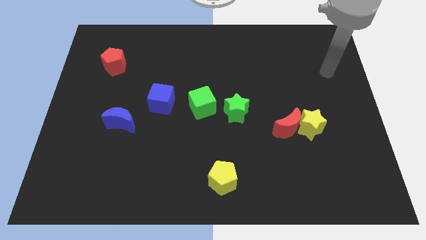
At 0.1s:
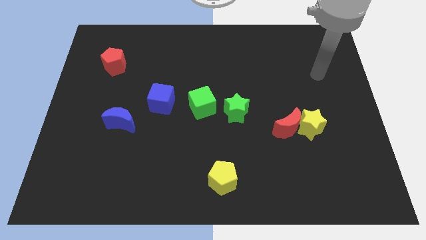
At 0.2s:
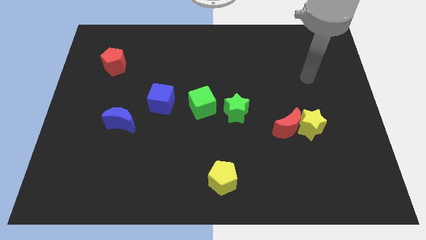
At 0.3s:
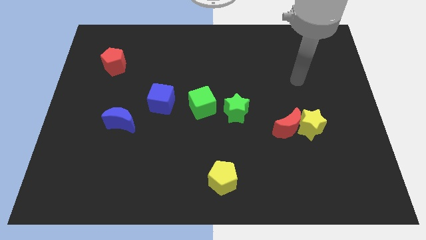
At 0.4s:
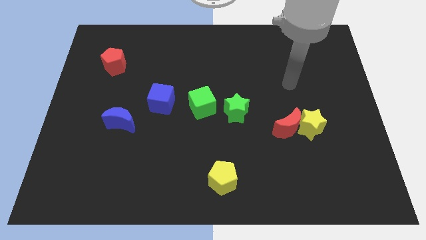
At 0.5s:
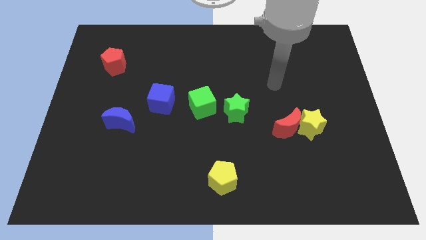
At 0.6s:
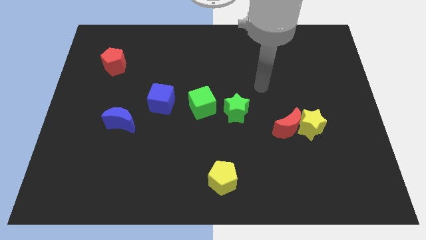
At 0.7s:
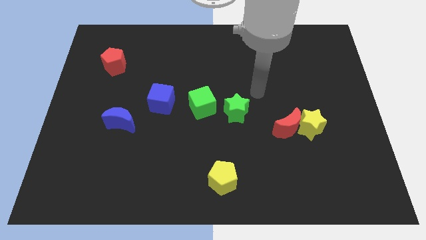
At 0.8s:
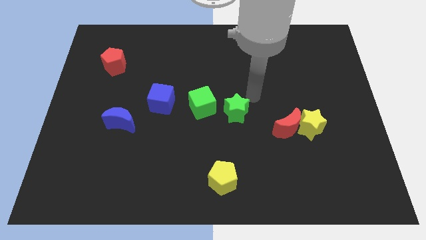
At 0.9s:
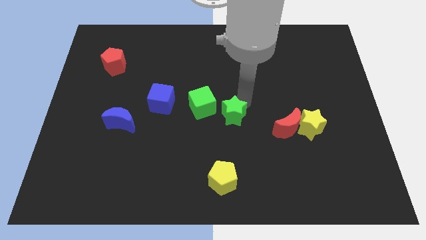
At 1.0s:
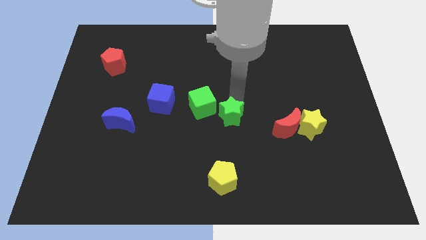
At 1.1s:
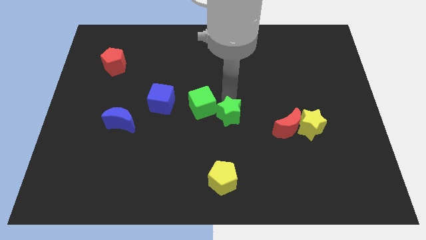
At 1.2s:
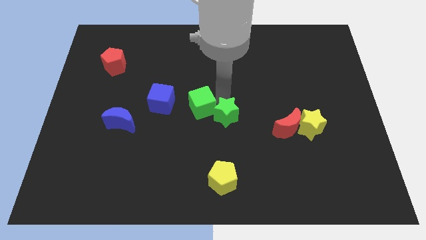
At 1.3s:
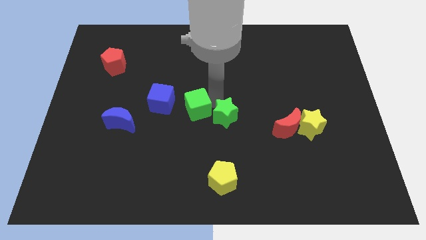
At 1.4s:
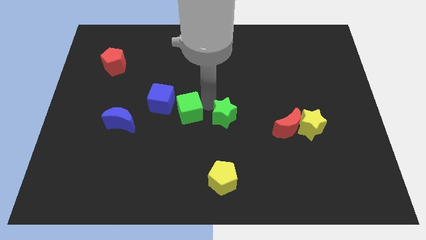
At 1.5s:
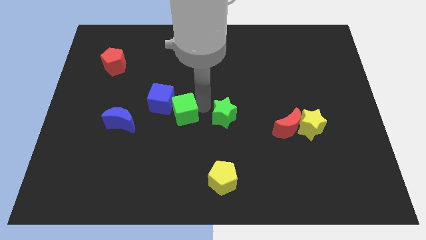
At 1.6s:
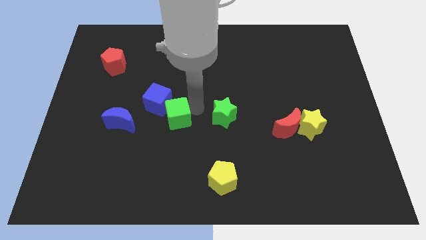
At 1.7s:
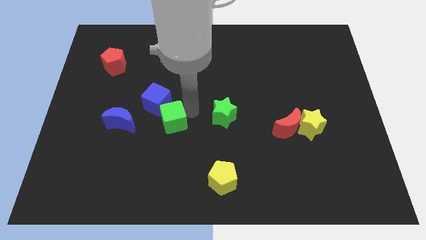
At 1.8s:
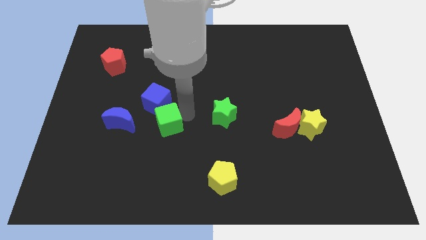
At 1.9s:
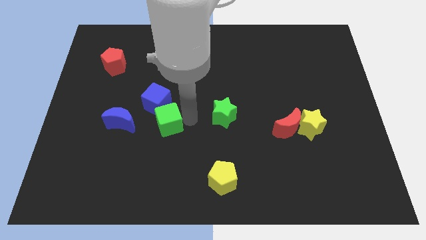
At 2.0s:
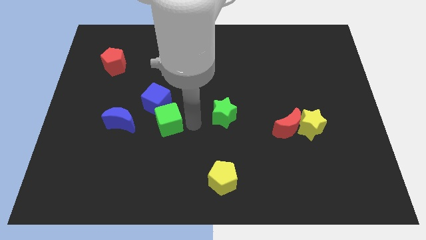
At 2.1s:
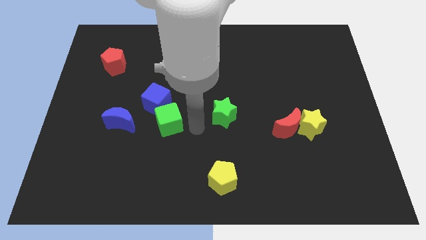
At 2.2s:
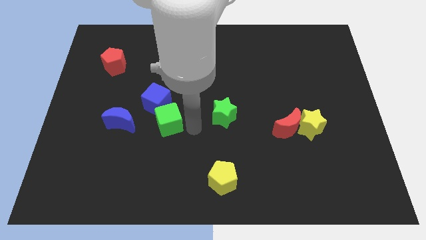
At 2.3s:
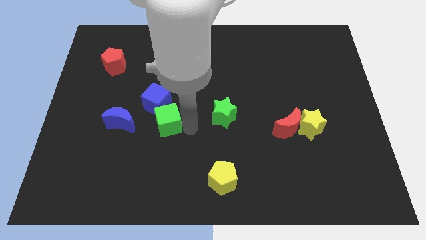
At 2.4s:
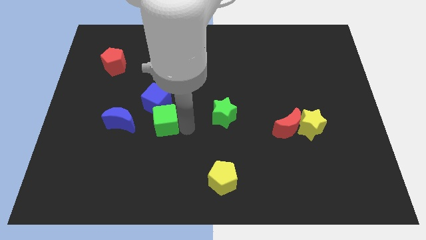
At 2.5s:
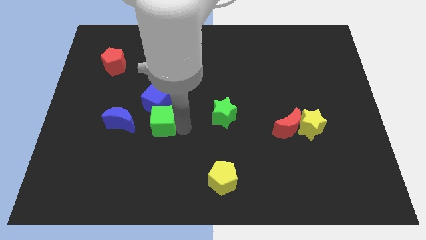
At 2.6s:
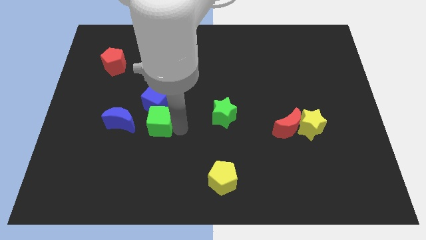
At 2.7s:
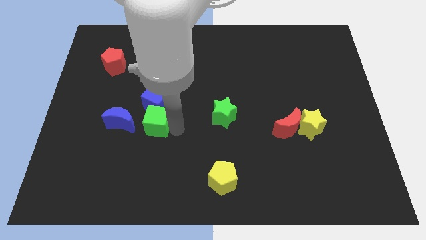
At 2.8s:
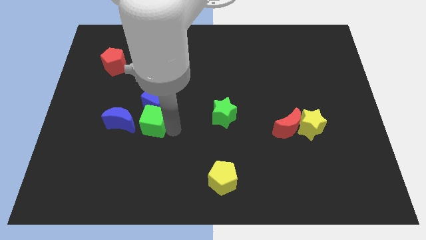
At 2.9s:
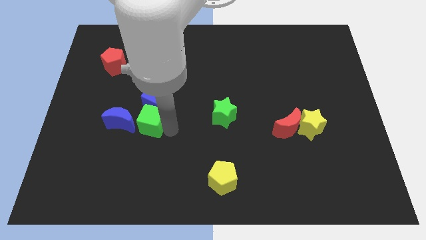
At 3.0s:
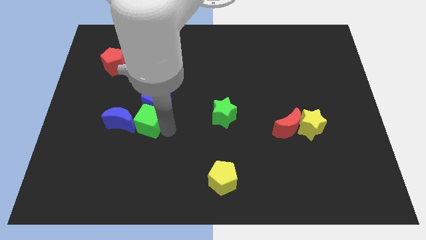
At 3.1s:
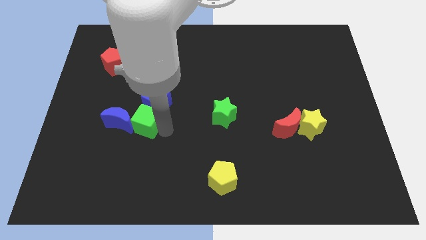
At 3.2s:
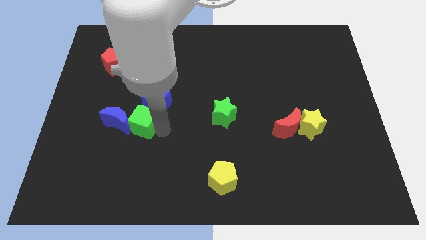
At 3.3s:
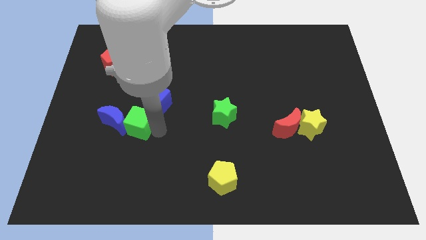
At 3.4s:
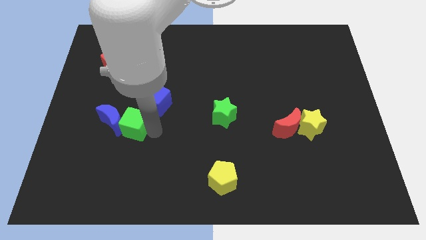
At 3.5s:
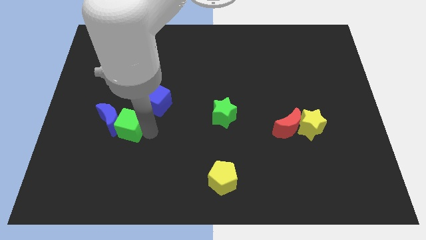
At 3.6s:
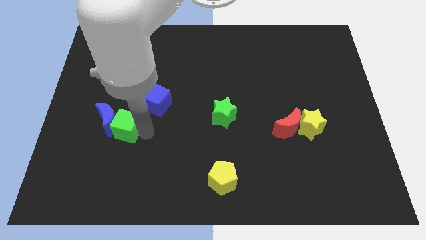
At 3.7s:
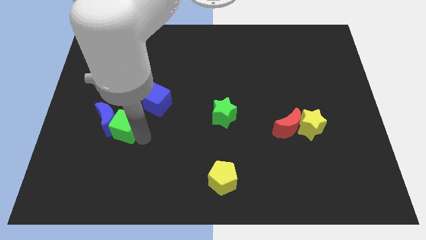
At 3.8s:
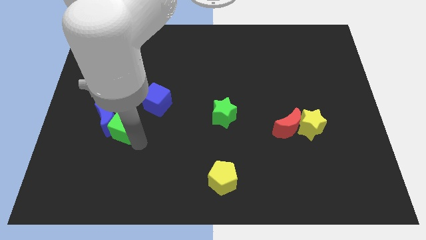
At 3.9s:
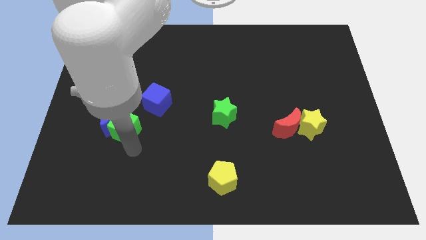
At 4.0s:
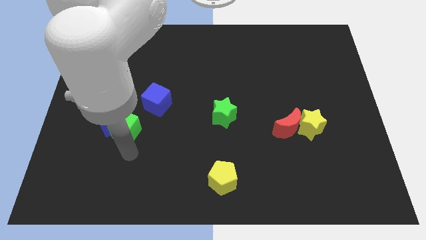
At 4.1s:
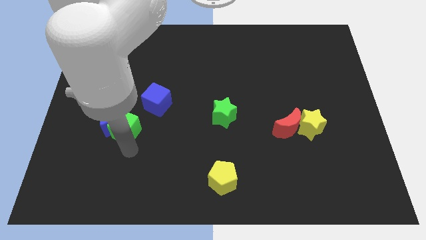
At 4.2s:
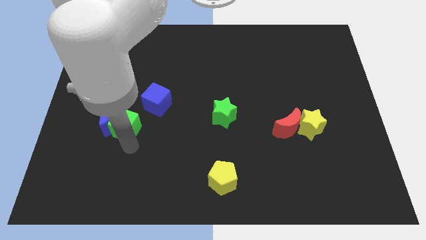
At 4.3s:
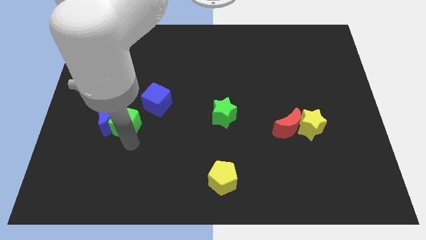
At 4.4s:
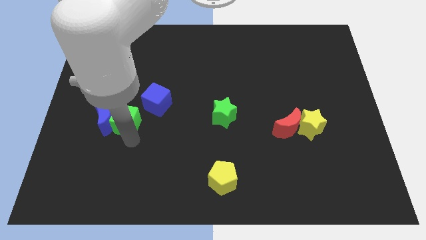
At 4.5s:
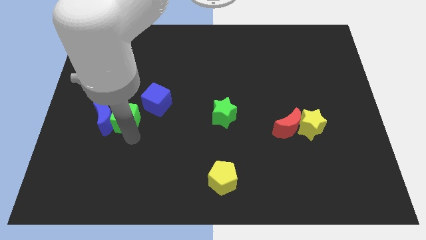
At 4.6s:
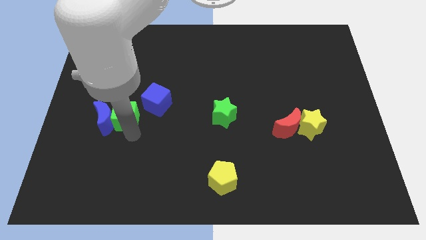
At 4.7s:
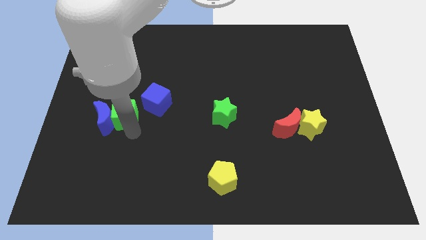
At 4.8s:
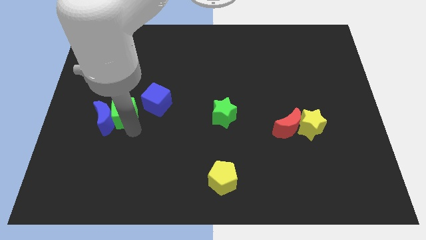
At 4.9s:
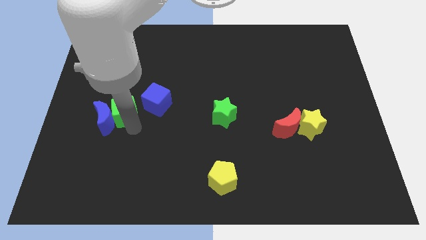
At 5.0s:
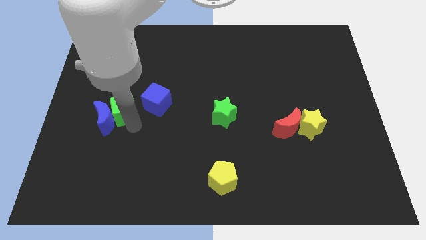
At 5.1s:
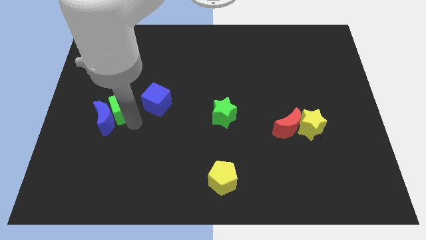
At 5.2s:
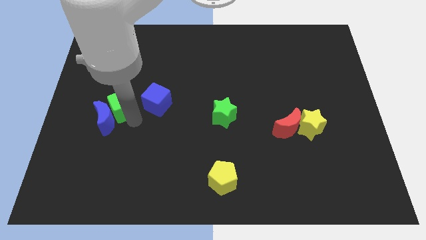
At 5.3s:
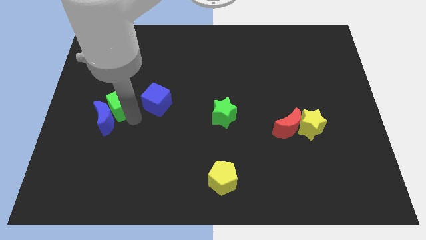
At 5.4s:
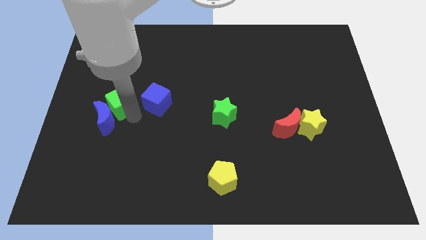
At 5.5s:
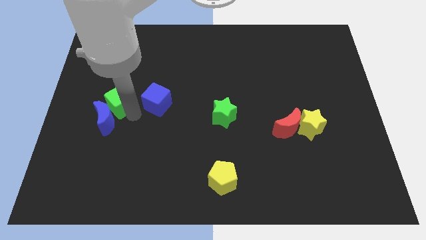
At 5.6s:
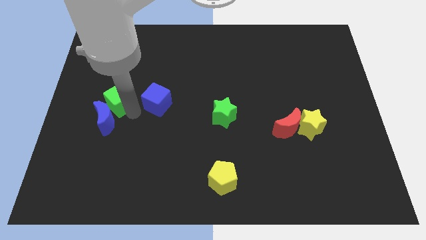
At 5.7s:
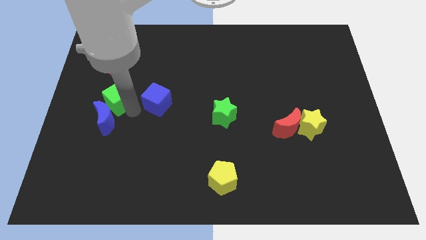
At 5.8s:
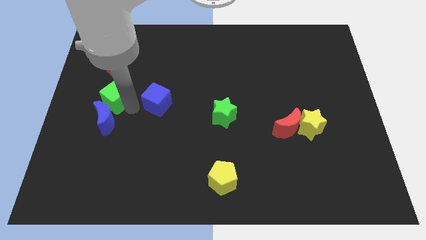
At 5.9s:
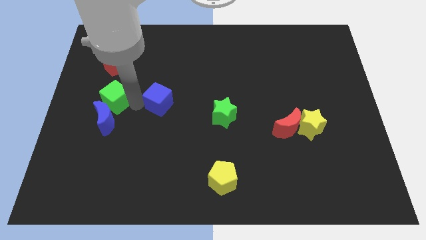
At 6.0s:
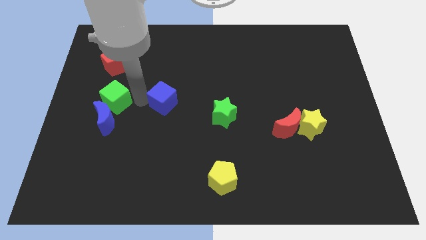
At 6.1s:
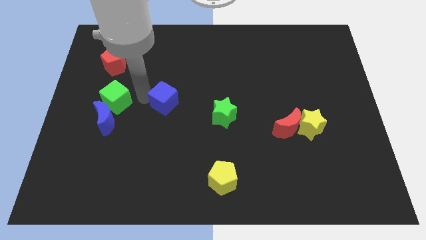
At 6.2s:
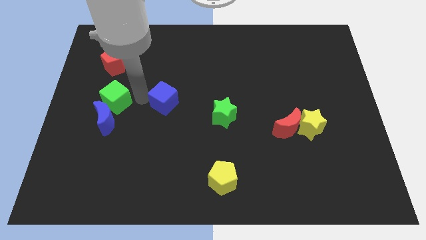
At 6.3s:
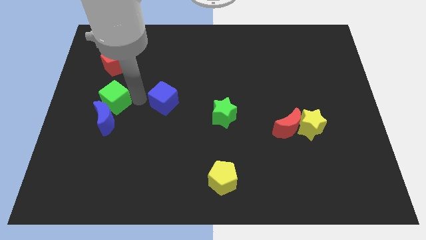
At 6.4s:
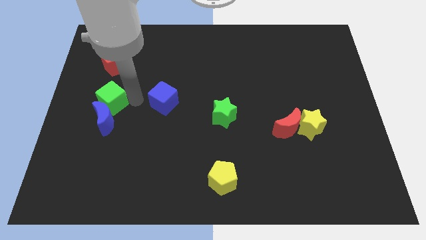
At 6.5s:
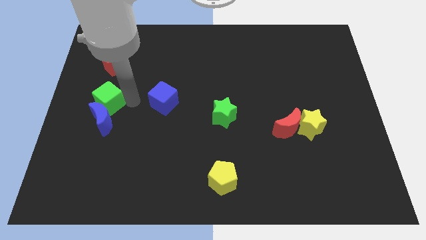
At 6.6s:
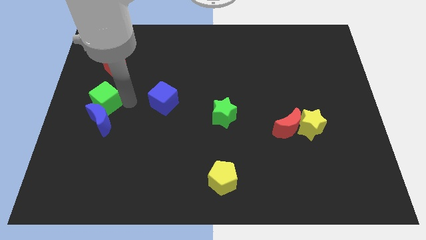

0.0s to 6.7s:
move the green cube to the center left

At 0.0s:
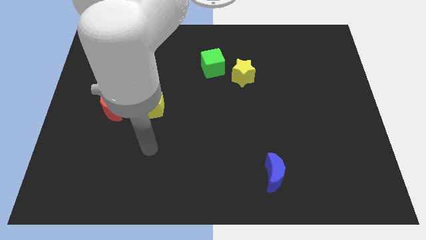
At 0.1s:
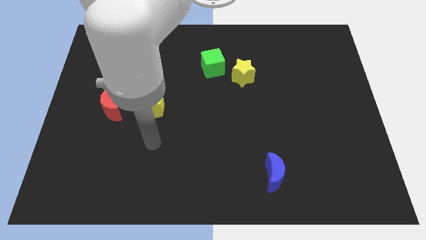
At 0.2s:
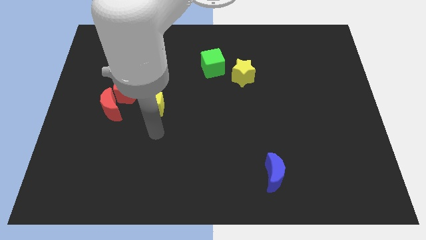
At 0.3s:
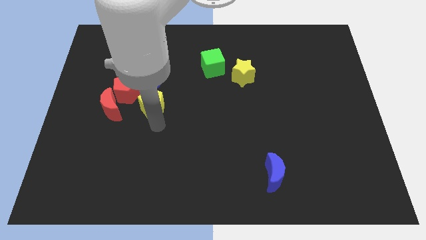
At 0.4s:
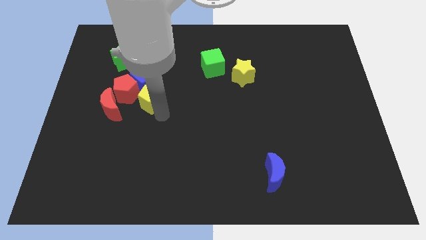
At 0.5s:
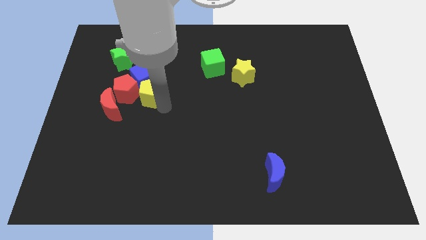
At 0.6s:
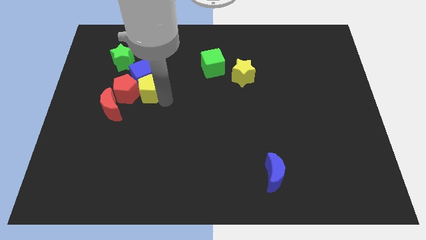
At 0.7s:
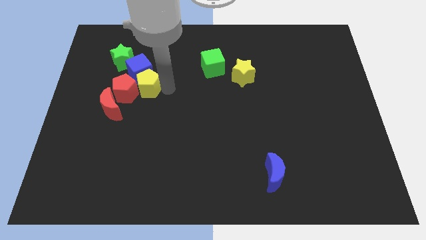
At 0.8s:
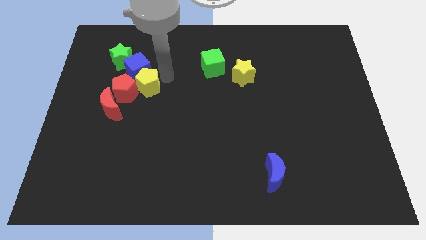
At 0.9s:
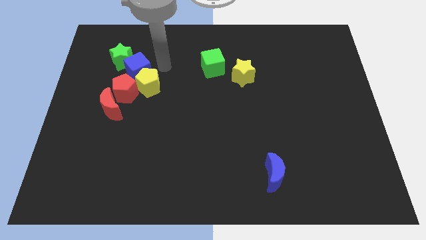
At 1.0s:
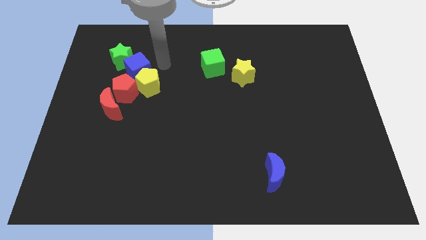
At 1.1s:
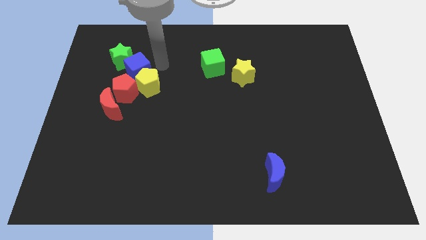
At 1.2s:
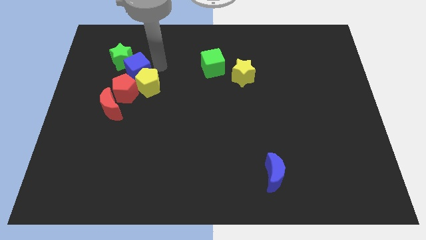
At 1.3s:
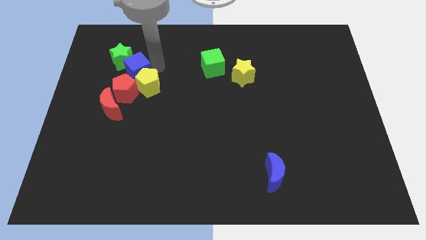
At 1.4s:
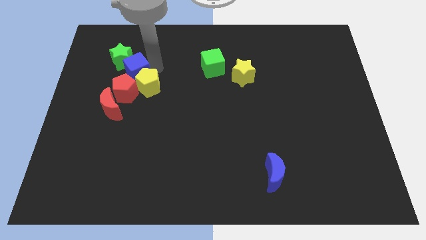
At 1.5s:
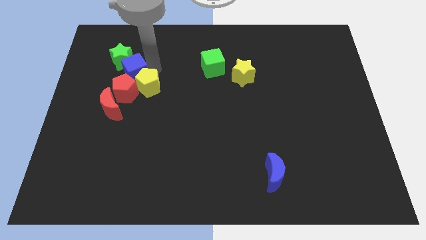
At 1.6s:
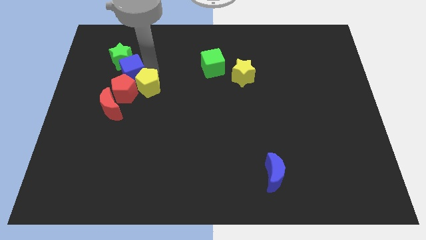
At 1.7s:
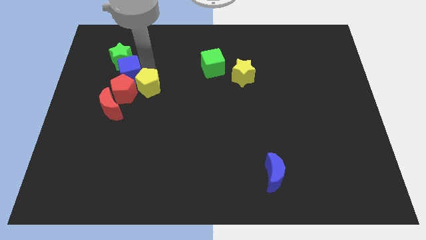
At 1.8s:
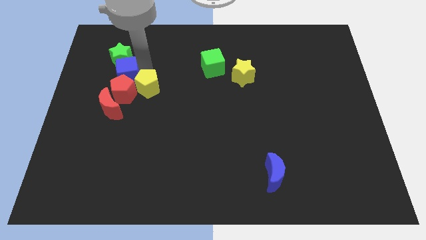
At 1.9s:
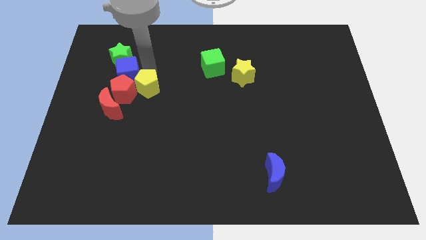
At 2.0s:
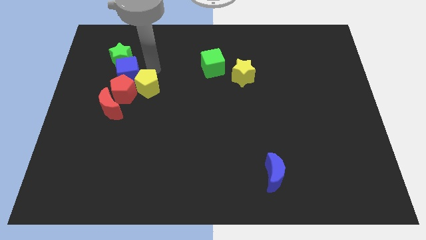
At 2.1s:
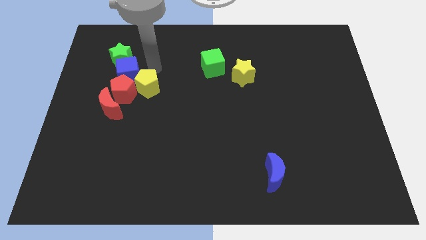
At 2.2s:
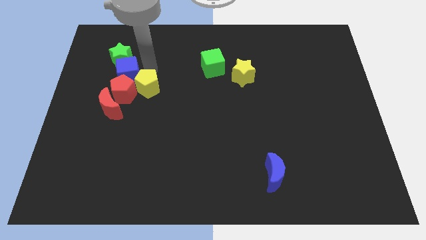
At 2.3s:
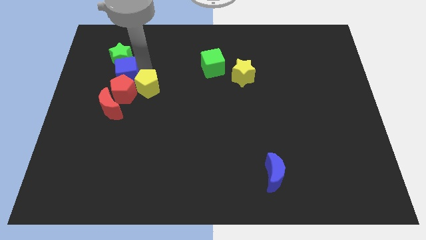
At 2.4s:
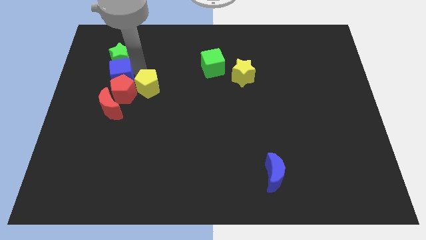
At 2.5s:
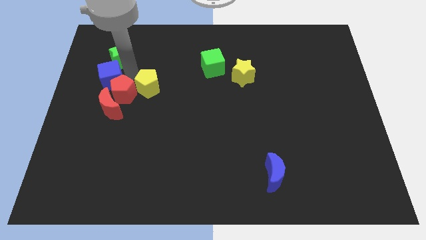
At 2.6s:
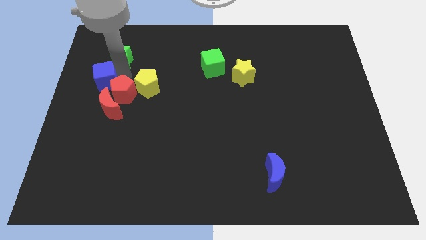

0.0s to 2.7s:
put the blue cube to the left side of the board
